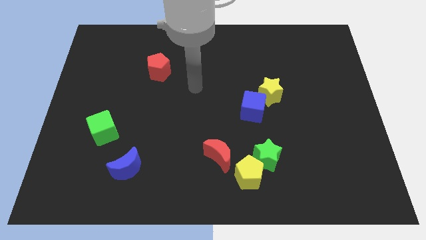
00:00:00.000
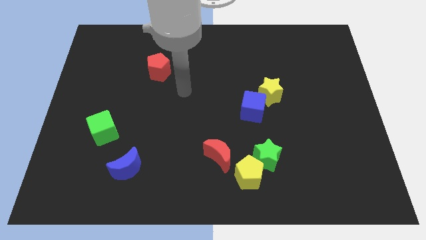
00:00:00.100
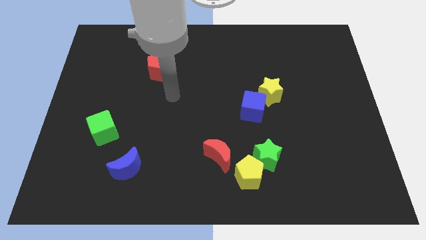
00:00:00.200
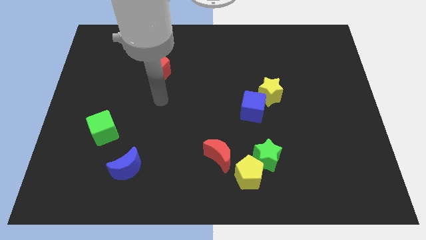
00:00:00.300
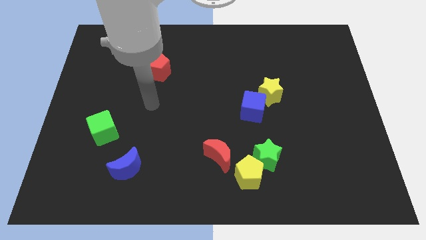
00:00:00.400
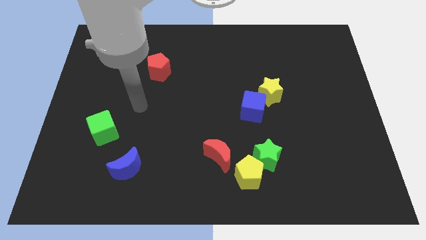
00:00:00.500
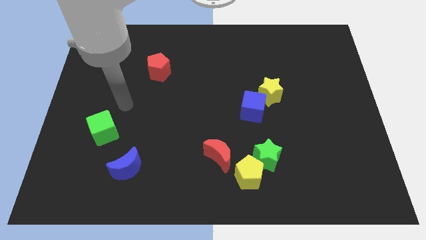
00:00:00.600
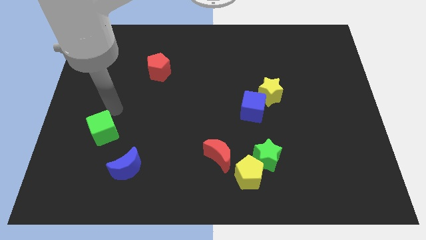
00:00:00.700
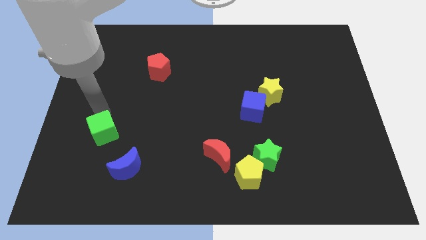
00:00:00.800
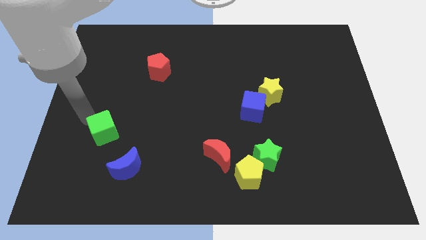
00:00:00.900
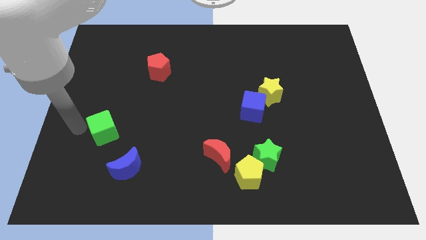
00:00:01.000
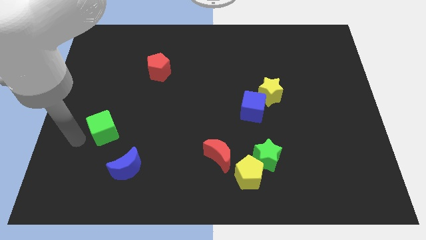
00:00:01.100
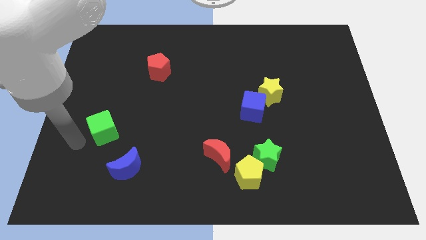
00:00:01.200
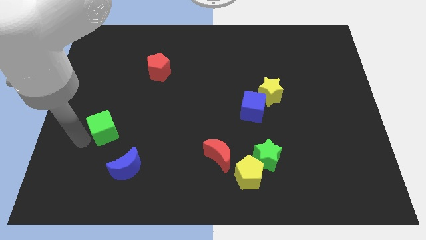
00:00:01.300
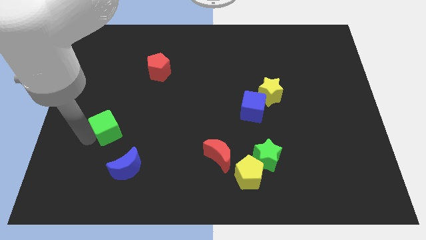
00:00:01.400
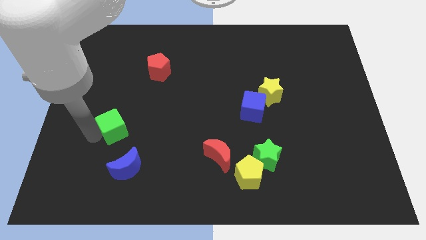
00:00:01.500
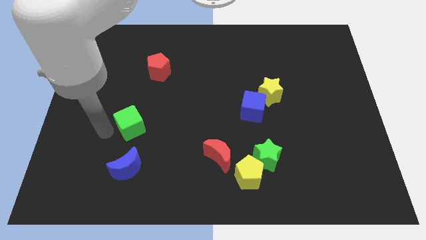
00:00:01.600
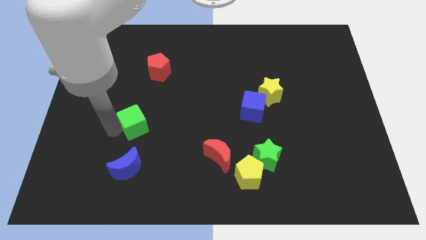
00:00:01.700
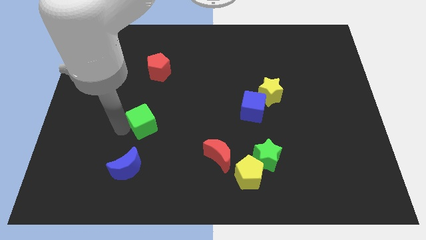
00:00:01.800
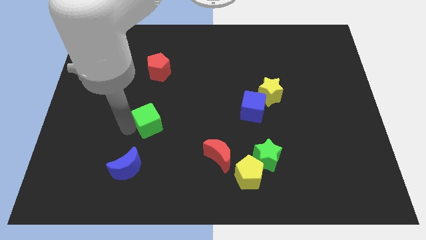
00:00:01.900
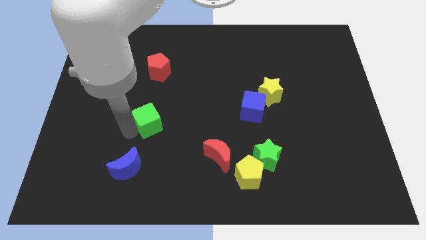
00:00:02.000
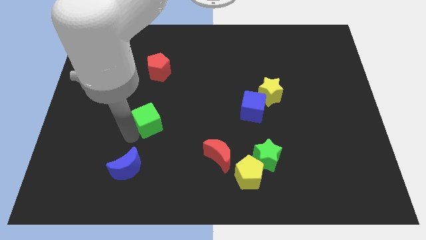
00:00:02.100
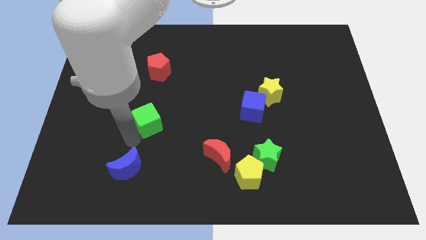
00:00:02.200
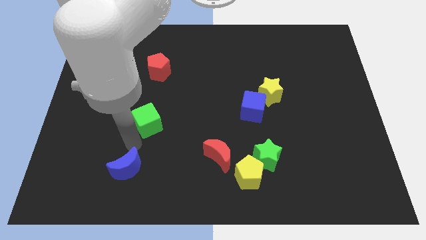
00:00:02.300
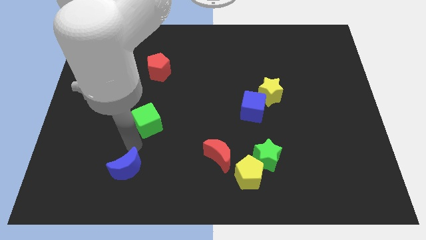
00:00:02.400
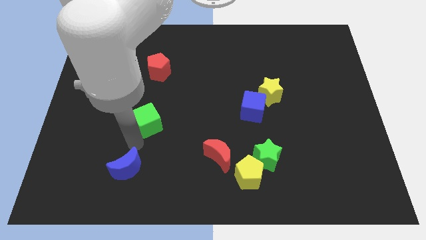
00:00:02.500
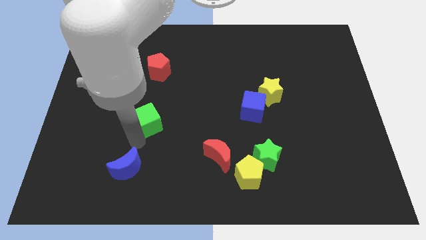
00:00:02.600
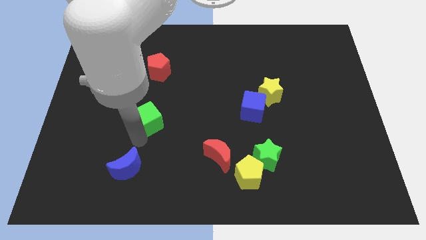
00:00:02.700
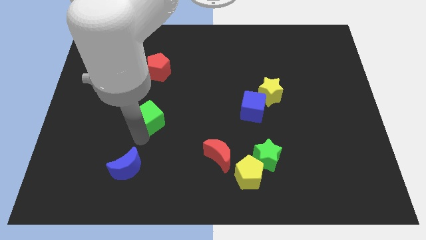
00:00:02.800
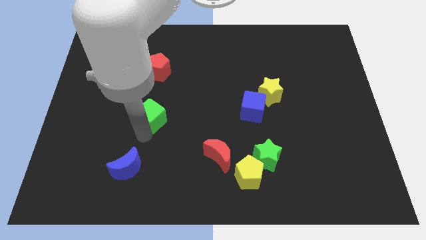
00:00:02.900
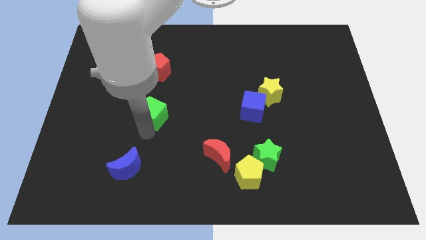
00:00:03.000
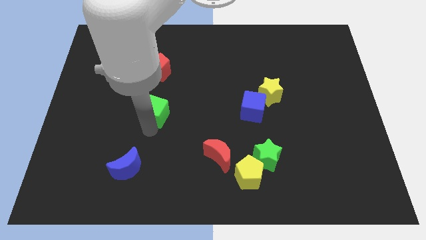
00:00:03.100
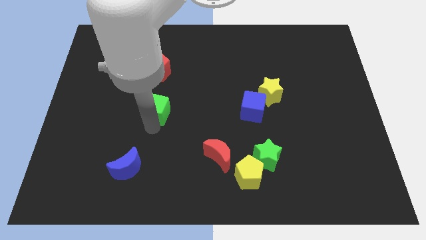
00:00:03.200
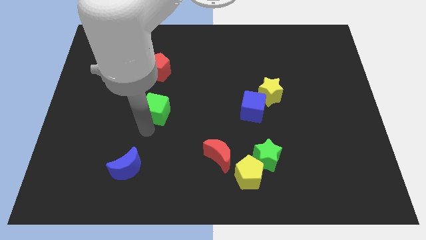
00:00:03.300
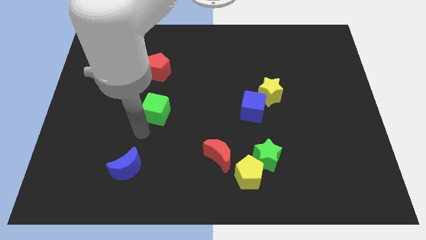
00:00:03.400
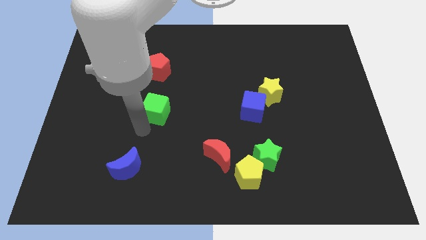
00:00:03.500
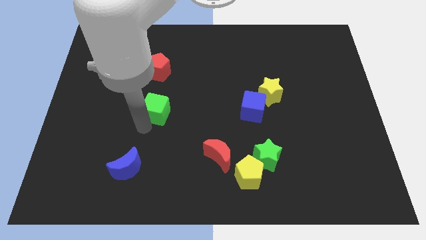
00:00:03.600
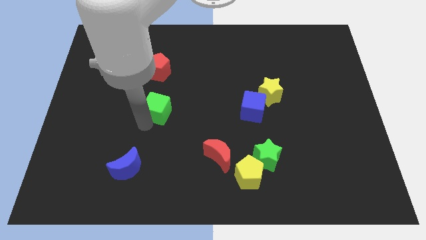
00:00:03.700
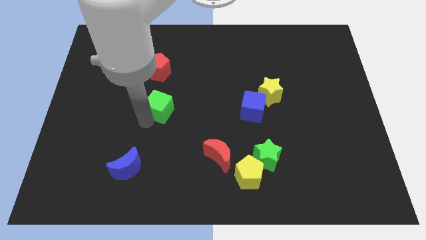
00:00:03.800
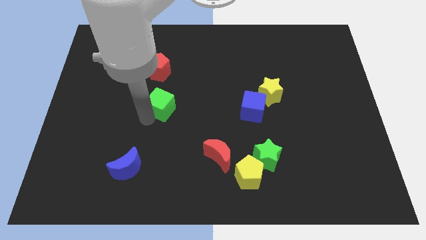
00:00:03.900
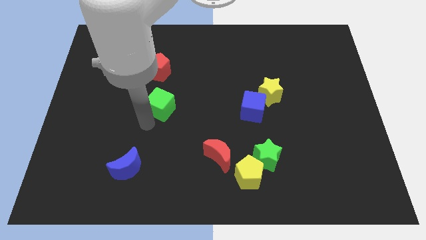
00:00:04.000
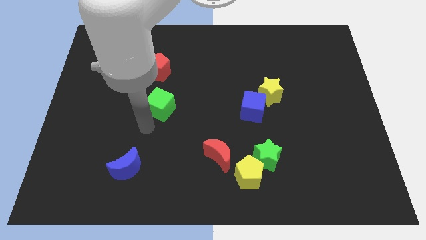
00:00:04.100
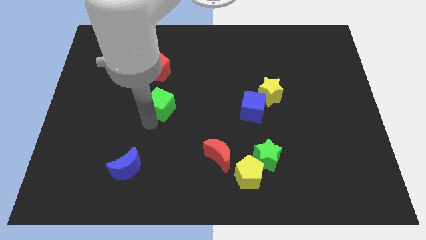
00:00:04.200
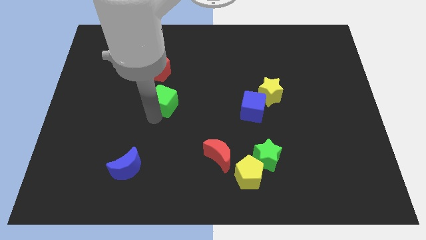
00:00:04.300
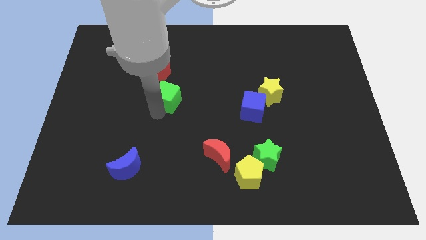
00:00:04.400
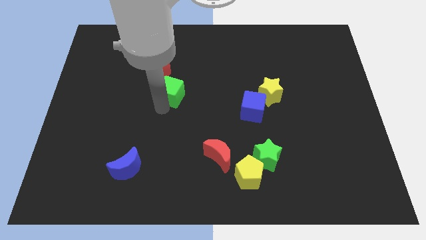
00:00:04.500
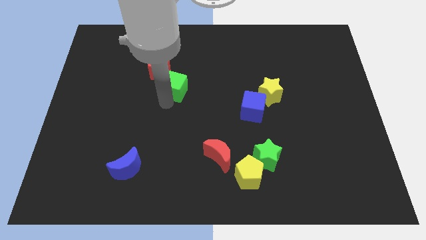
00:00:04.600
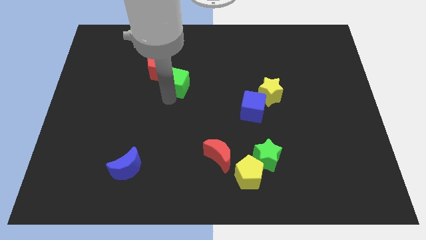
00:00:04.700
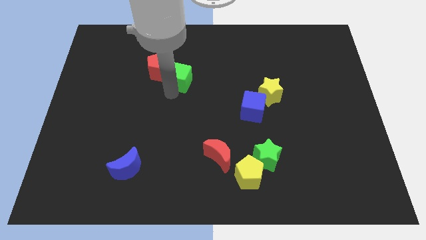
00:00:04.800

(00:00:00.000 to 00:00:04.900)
slide the green cube to the right side of the red pentagon

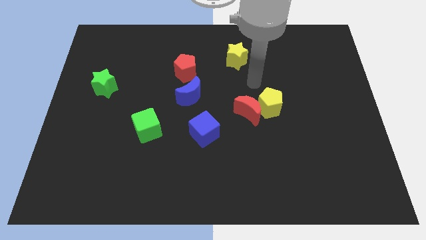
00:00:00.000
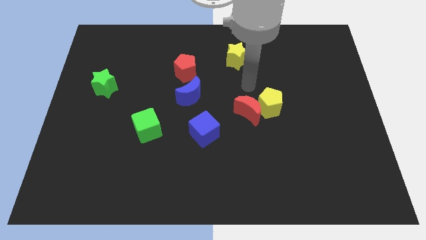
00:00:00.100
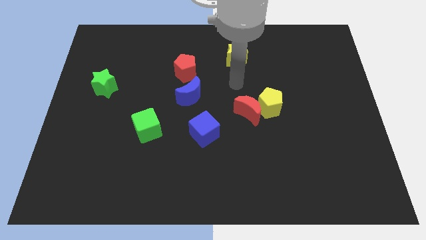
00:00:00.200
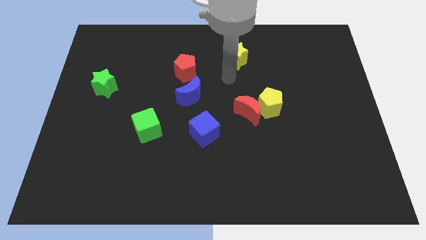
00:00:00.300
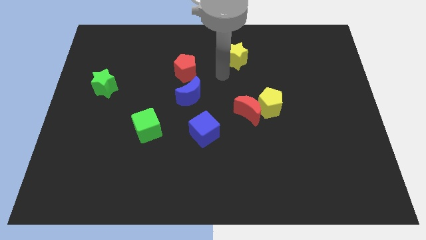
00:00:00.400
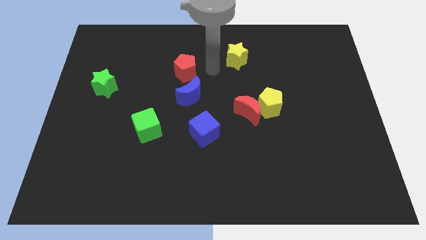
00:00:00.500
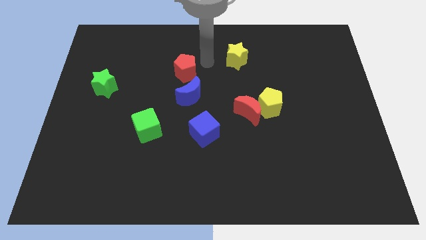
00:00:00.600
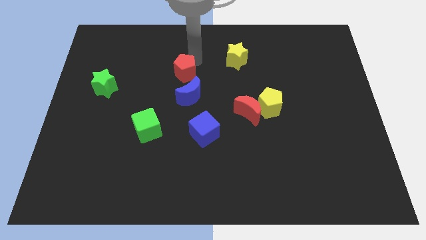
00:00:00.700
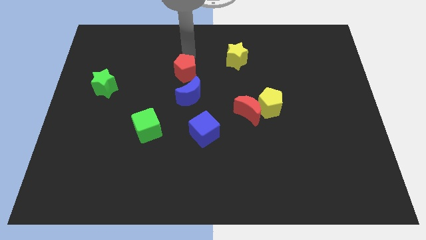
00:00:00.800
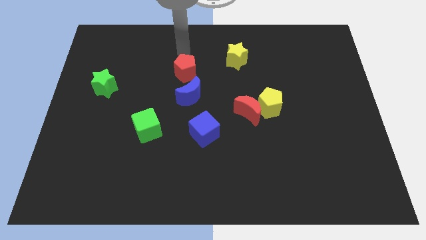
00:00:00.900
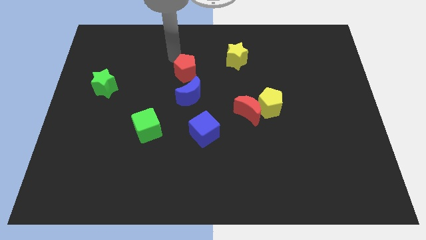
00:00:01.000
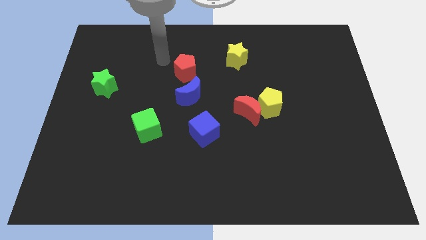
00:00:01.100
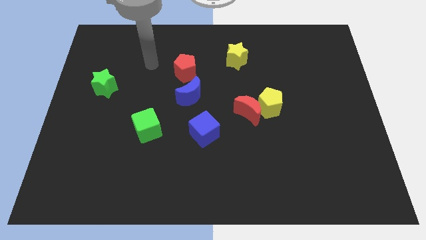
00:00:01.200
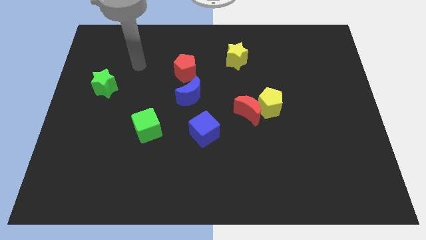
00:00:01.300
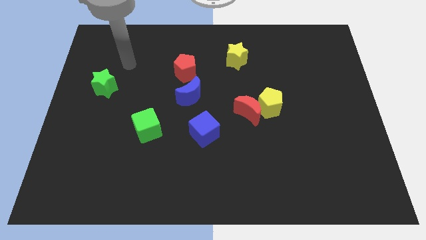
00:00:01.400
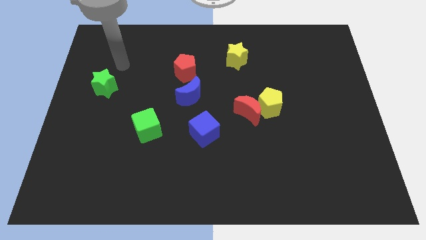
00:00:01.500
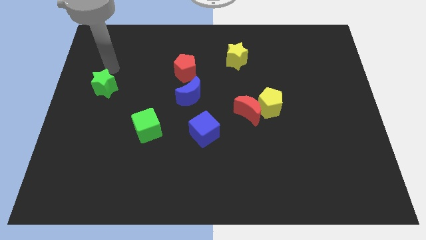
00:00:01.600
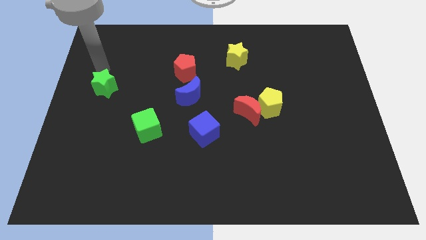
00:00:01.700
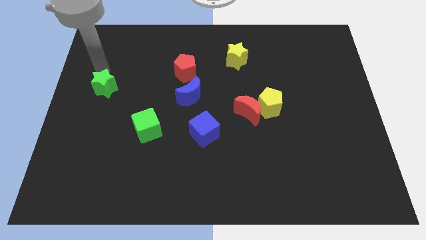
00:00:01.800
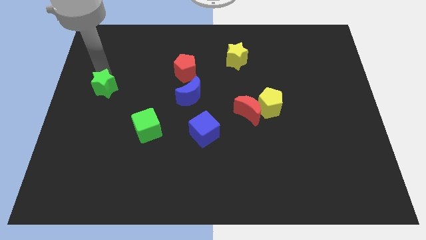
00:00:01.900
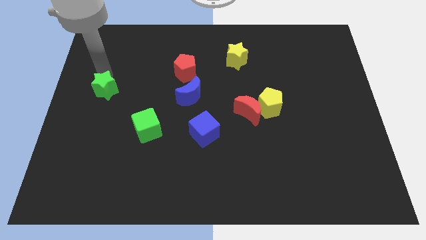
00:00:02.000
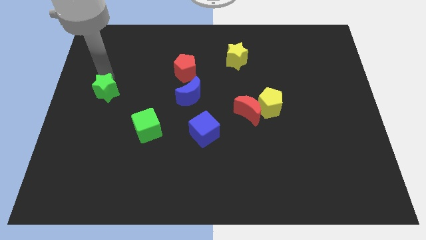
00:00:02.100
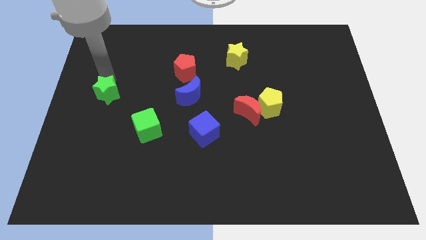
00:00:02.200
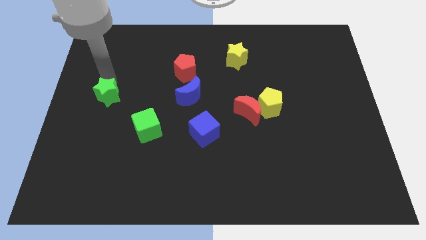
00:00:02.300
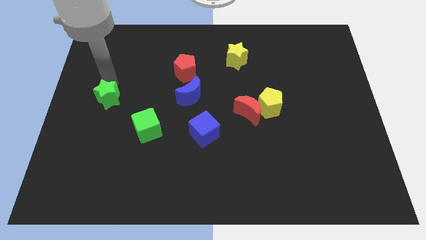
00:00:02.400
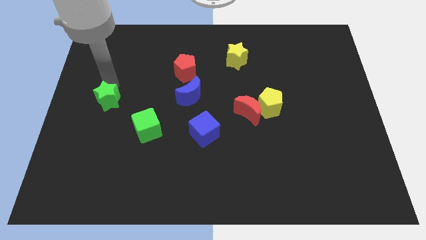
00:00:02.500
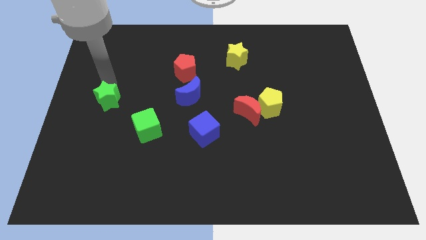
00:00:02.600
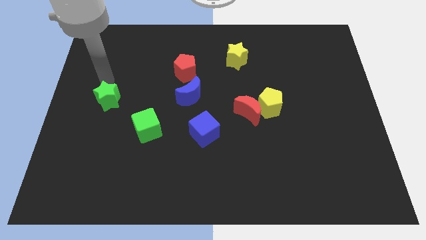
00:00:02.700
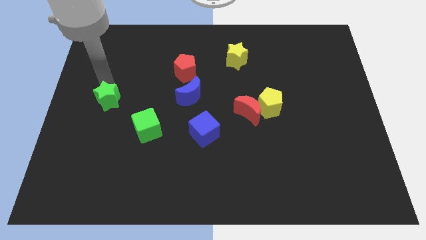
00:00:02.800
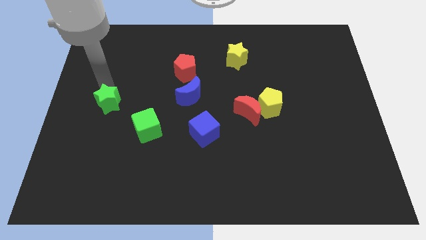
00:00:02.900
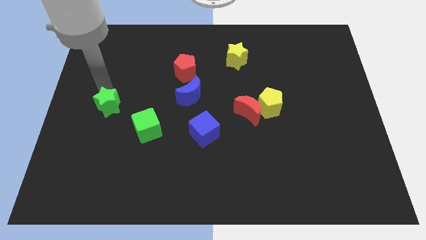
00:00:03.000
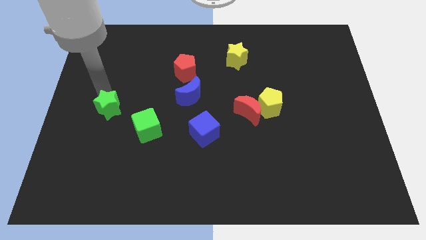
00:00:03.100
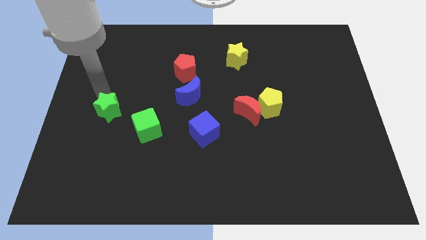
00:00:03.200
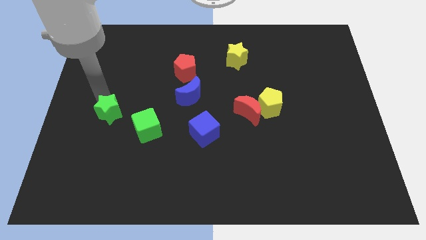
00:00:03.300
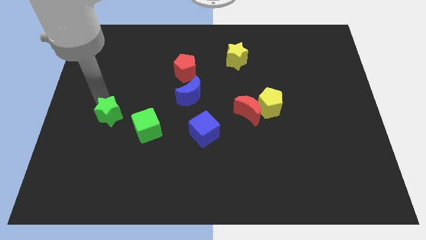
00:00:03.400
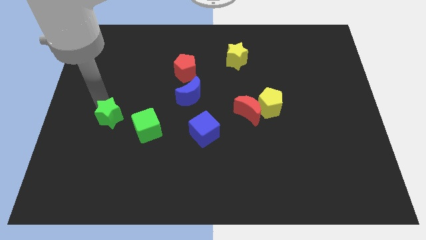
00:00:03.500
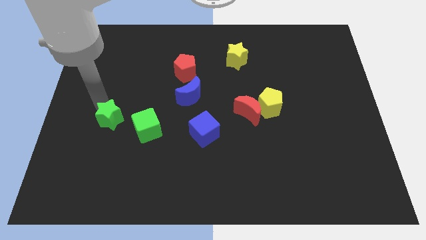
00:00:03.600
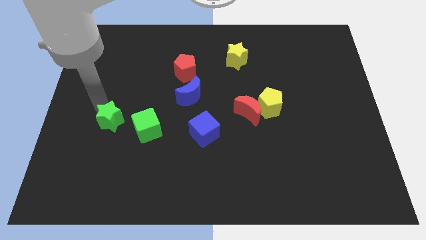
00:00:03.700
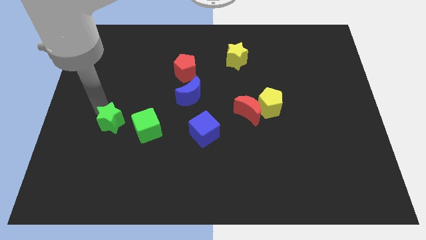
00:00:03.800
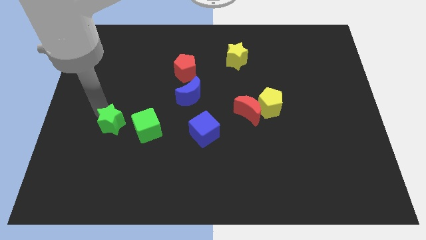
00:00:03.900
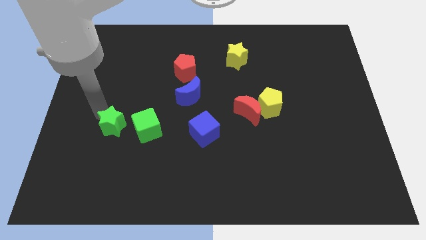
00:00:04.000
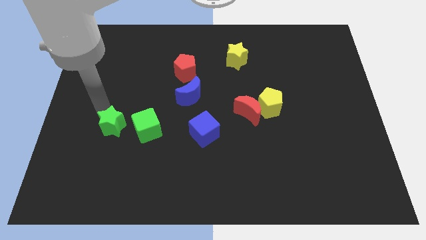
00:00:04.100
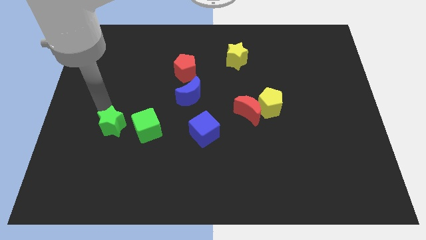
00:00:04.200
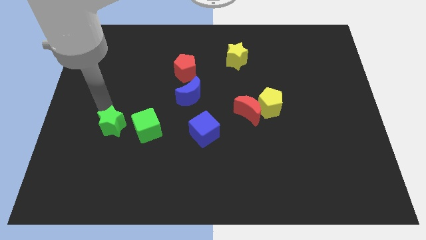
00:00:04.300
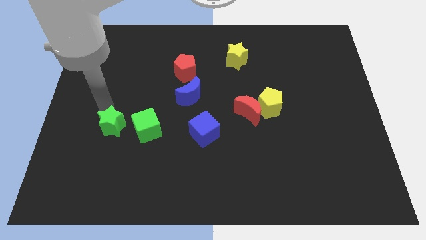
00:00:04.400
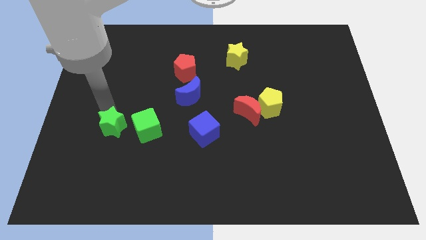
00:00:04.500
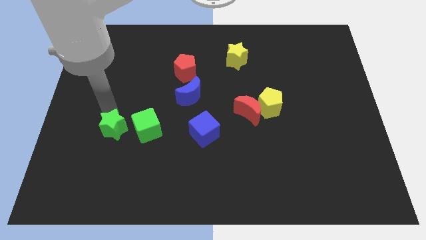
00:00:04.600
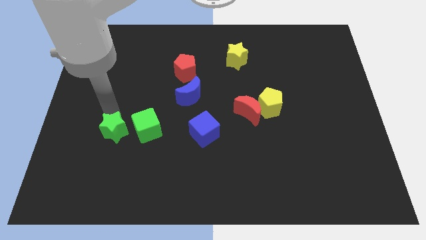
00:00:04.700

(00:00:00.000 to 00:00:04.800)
push the green star to the bottom left of the green cube
